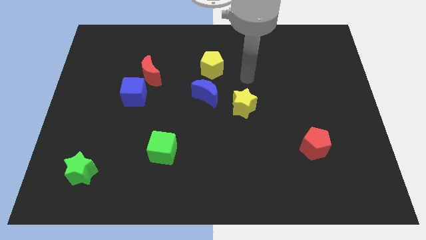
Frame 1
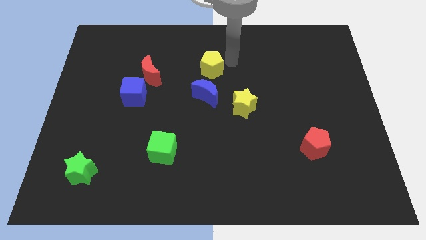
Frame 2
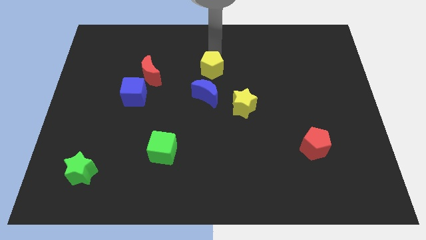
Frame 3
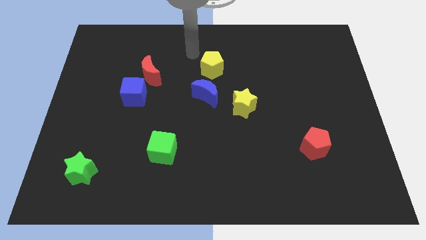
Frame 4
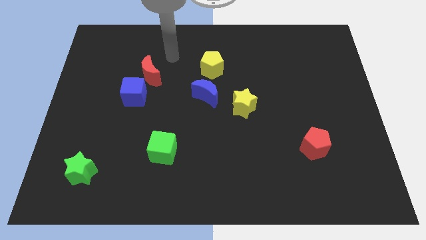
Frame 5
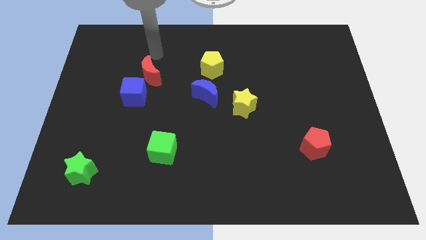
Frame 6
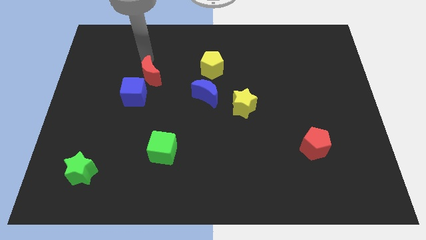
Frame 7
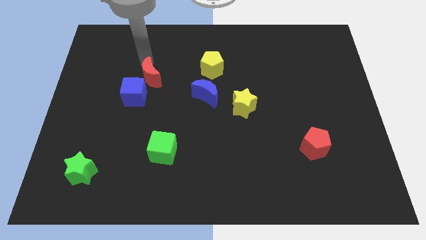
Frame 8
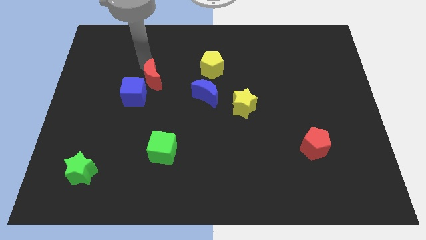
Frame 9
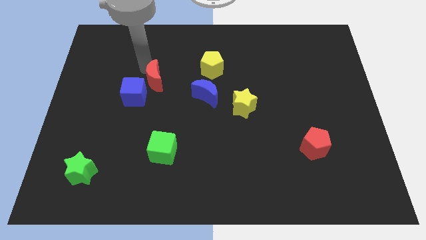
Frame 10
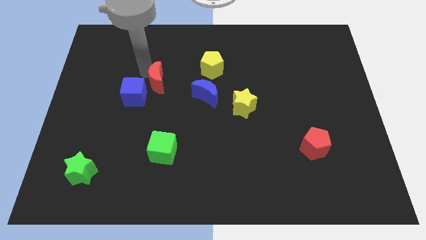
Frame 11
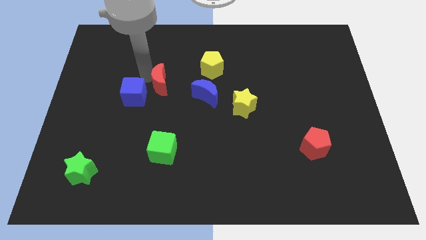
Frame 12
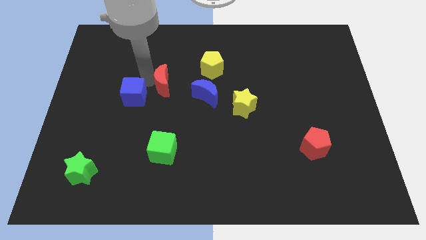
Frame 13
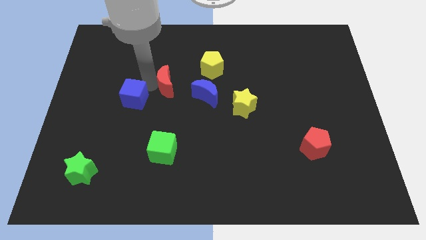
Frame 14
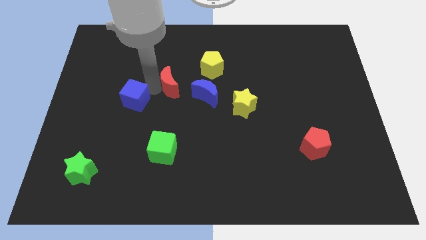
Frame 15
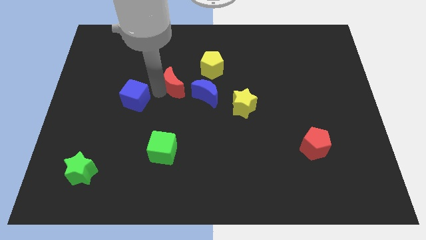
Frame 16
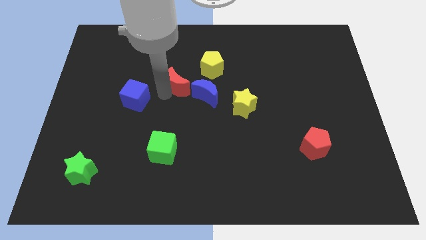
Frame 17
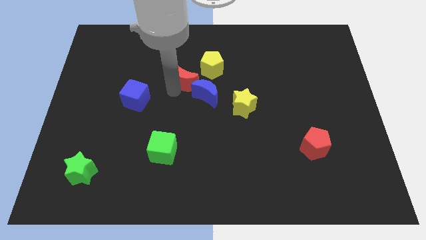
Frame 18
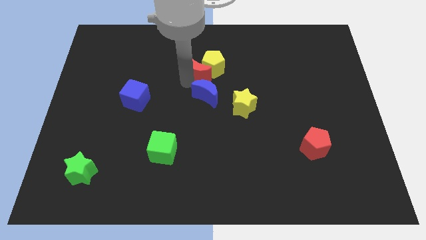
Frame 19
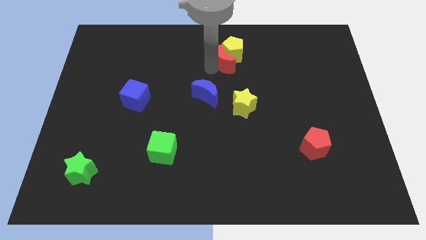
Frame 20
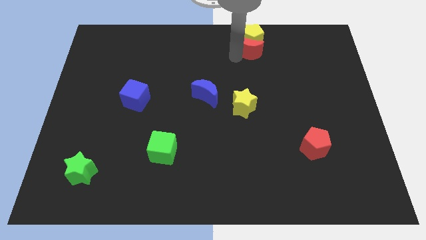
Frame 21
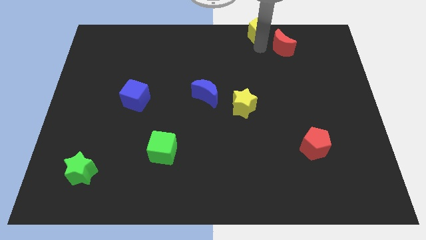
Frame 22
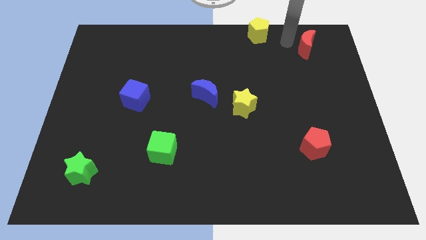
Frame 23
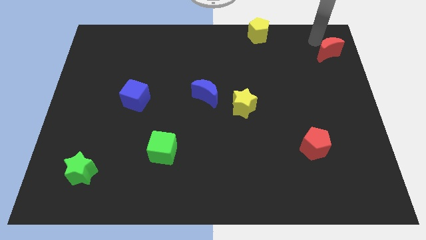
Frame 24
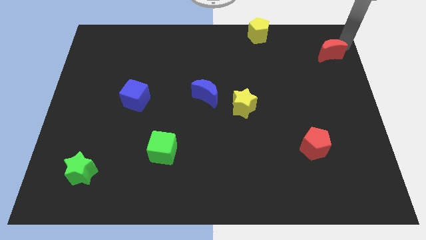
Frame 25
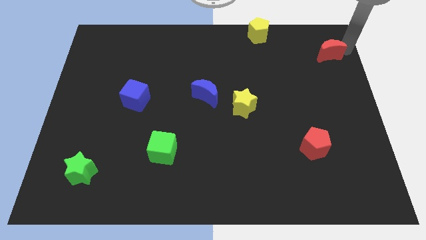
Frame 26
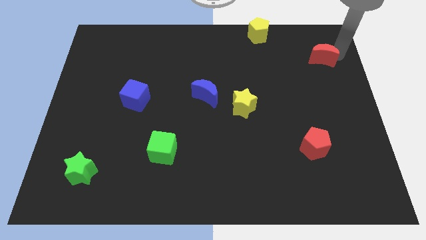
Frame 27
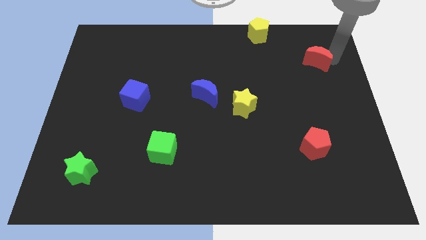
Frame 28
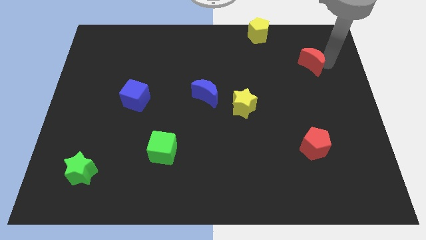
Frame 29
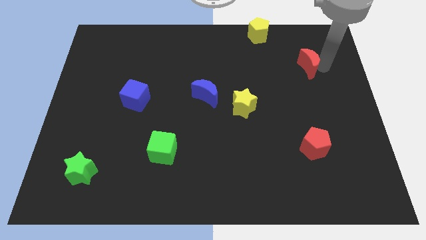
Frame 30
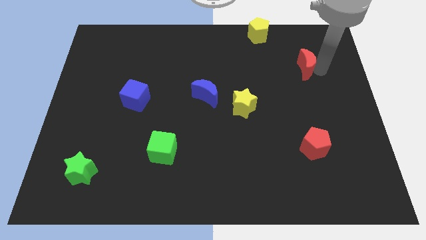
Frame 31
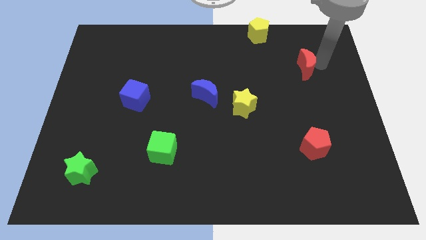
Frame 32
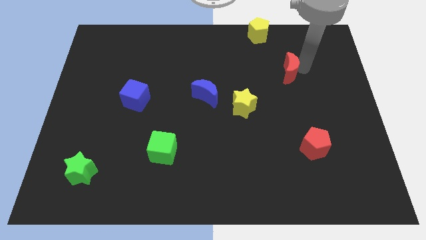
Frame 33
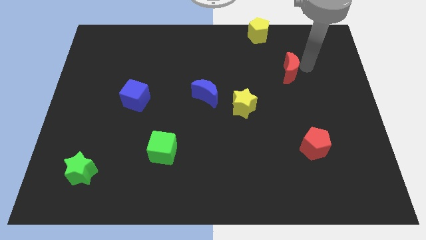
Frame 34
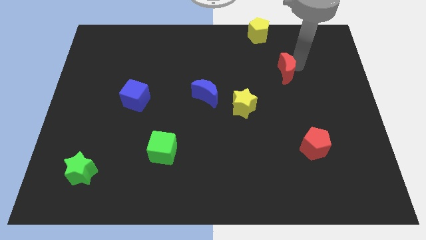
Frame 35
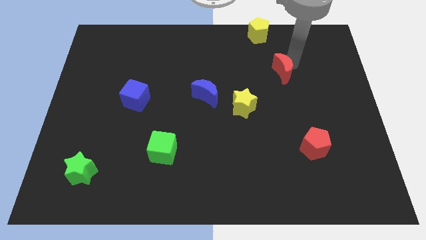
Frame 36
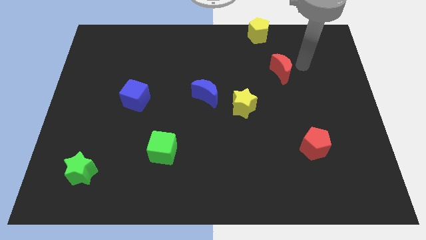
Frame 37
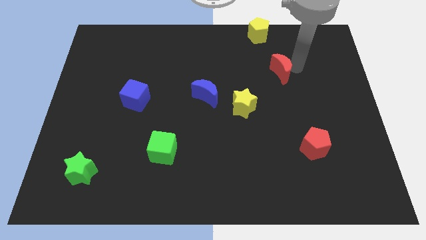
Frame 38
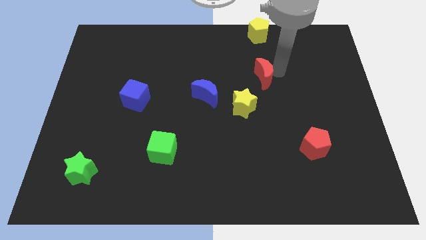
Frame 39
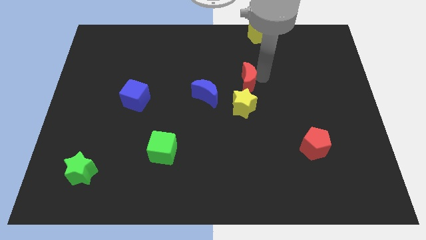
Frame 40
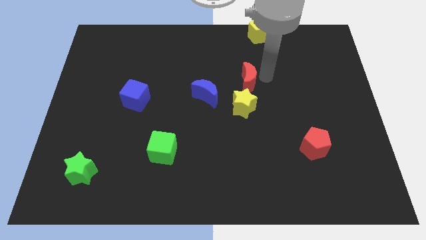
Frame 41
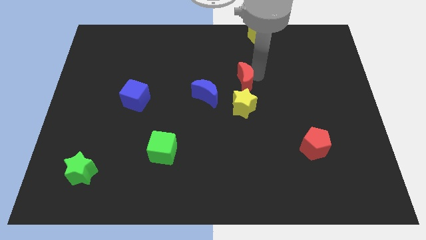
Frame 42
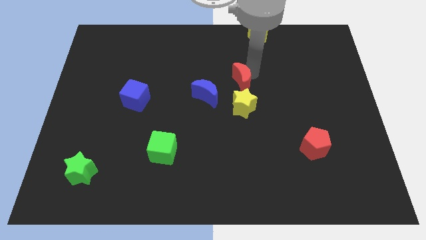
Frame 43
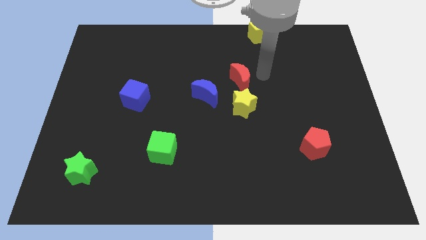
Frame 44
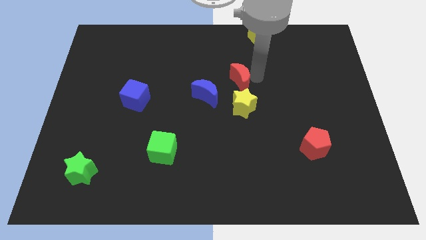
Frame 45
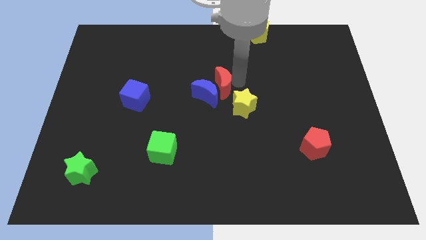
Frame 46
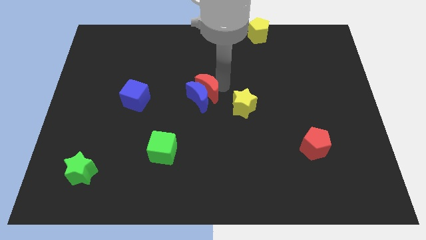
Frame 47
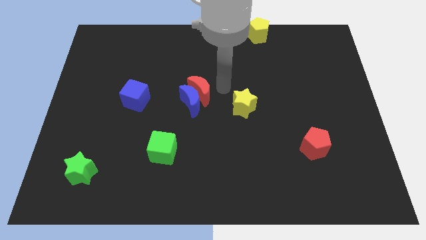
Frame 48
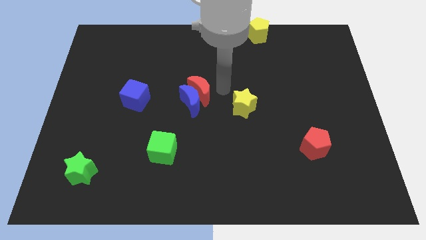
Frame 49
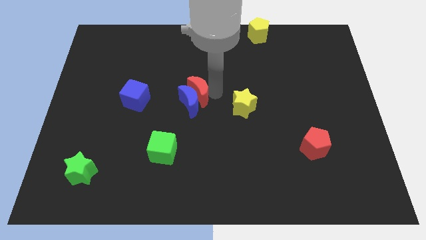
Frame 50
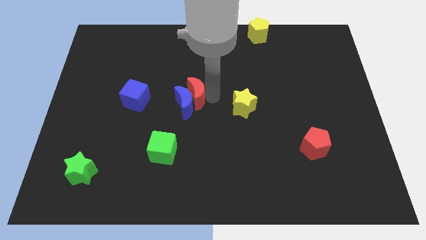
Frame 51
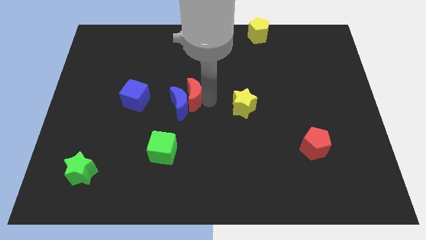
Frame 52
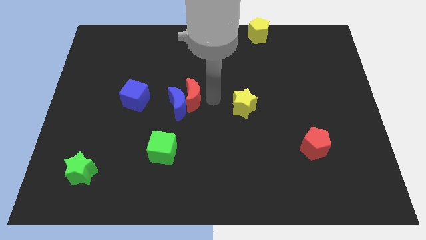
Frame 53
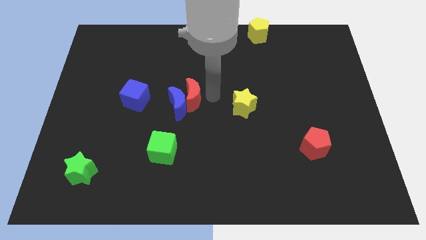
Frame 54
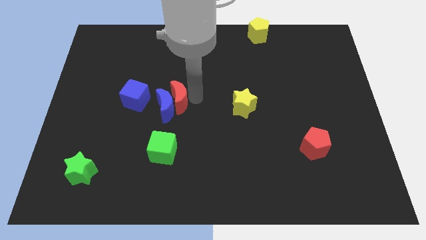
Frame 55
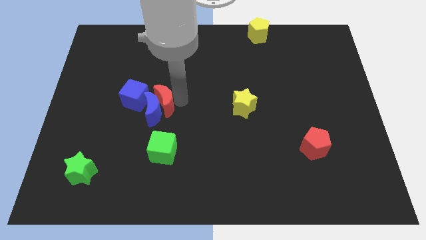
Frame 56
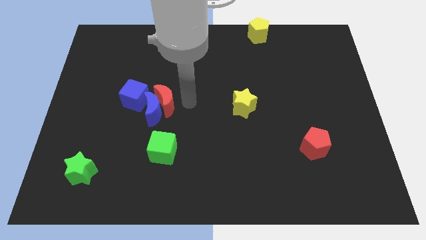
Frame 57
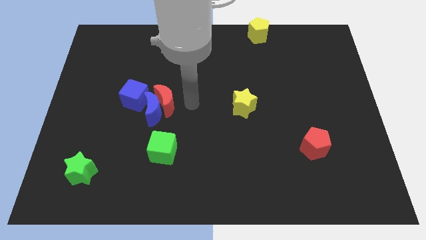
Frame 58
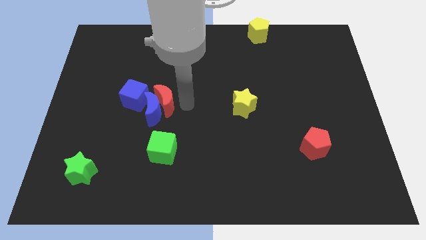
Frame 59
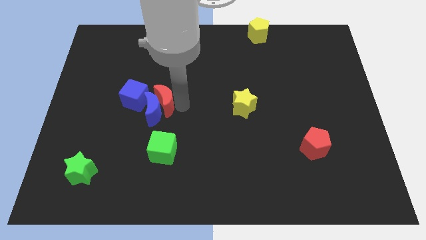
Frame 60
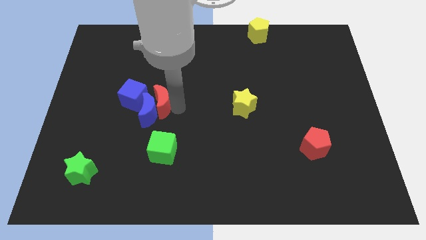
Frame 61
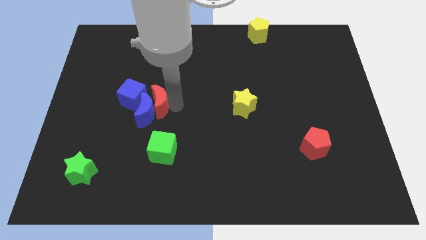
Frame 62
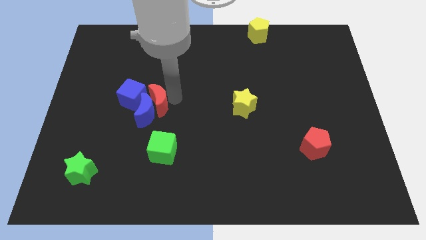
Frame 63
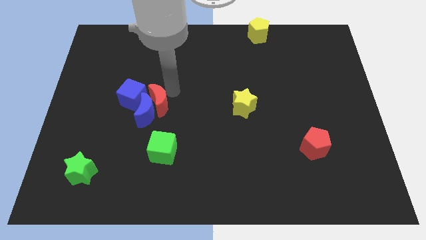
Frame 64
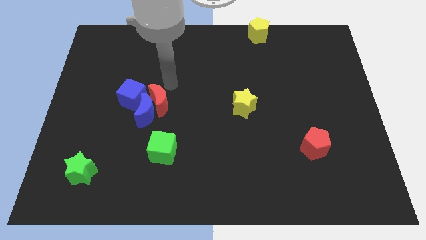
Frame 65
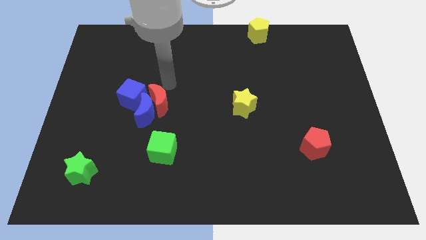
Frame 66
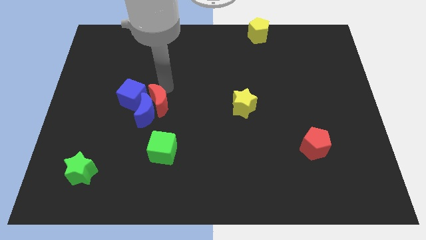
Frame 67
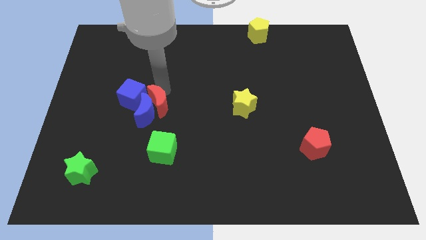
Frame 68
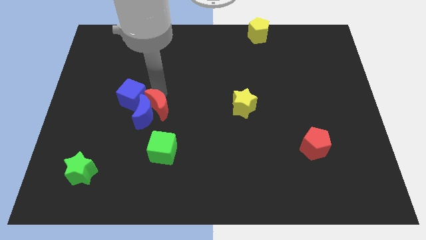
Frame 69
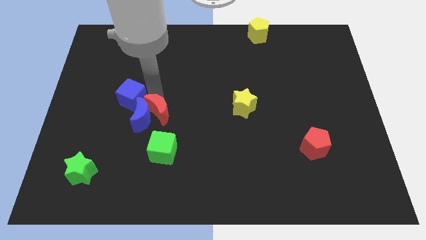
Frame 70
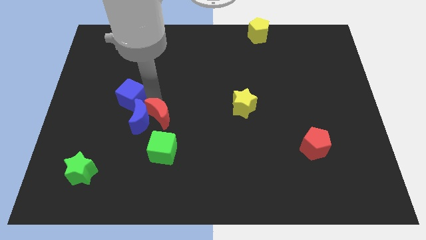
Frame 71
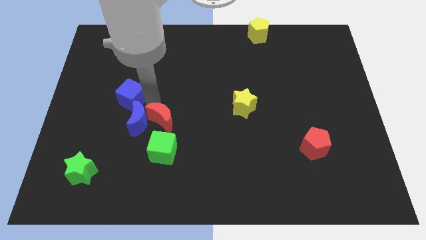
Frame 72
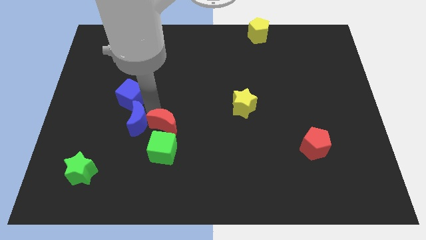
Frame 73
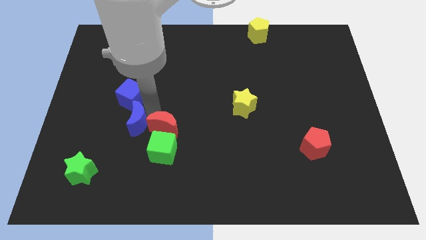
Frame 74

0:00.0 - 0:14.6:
push the red moon towards the green cube
